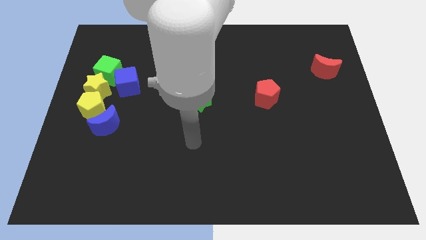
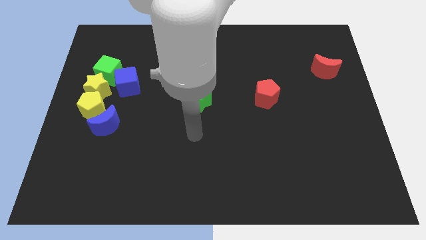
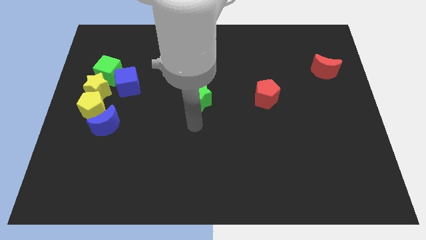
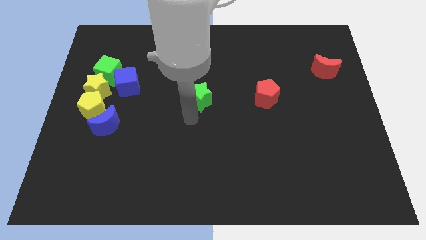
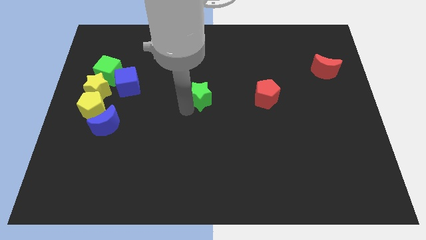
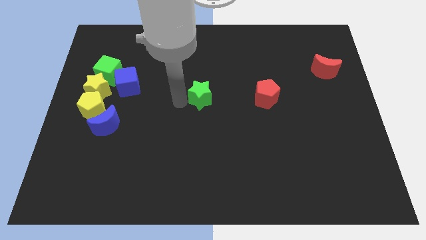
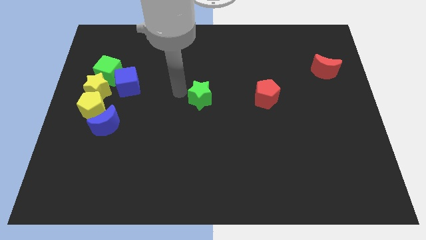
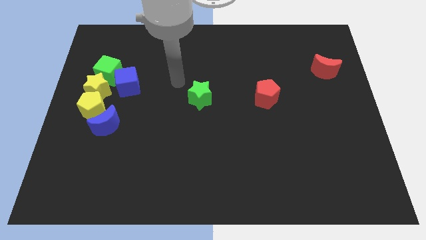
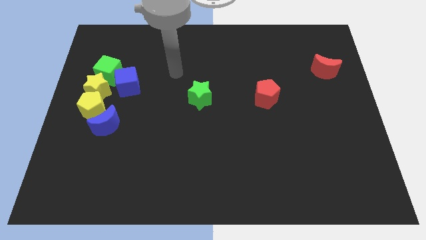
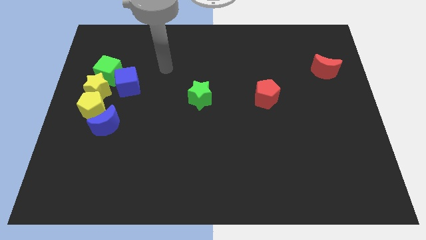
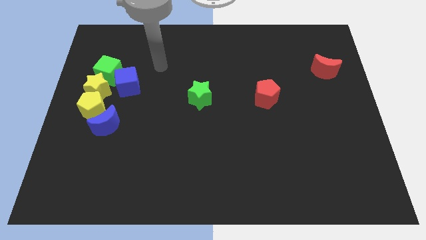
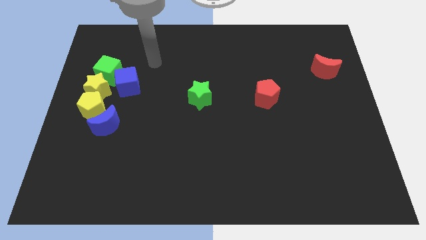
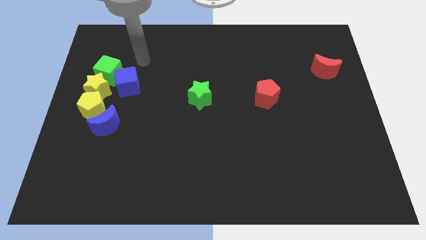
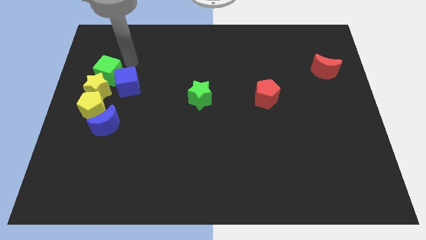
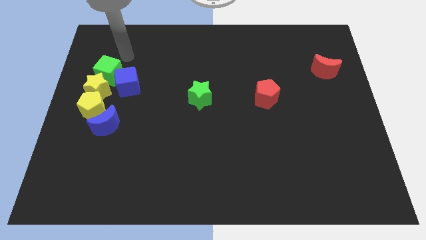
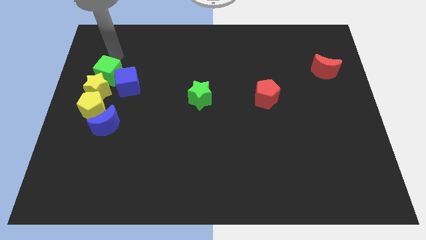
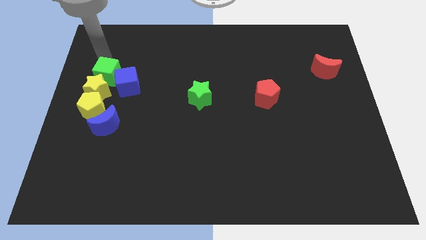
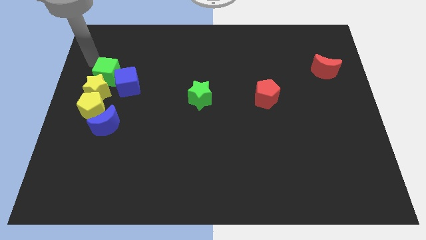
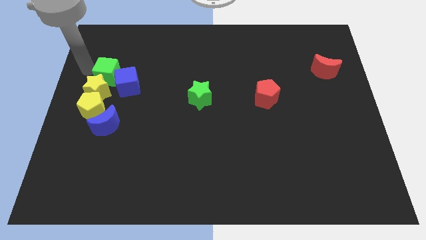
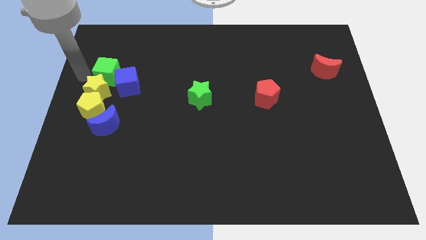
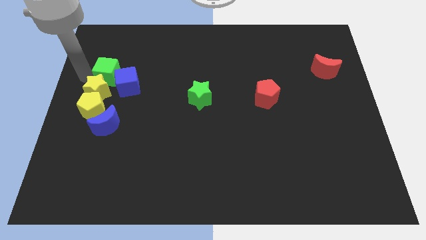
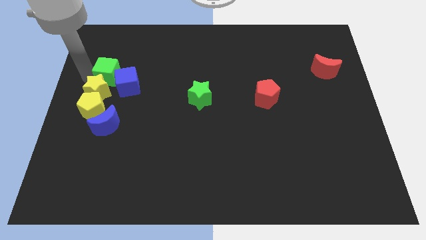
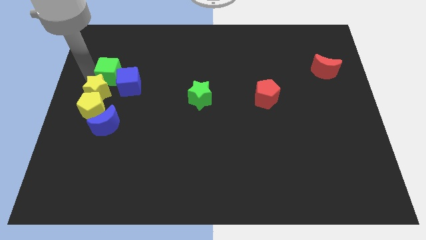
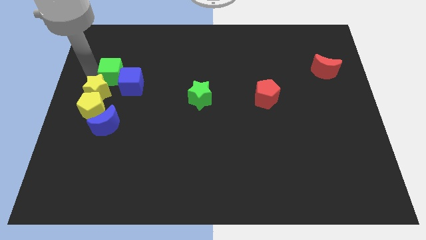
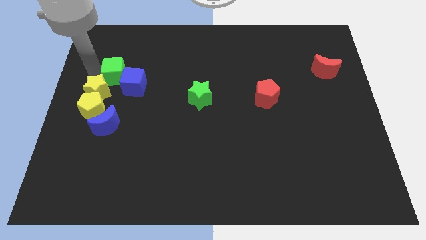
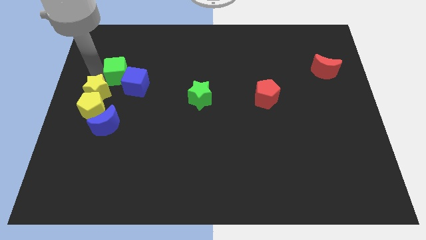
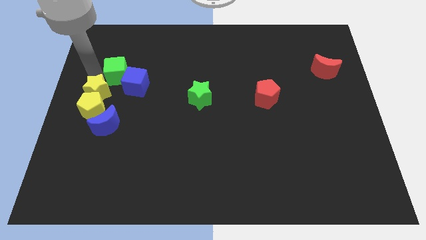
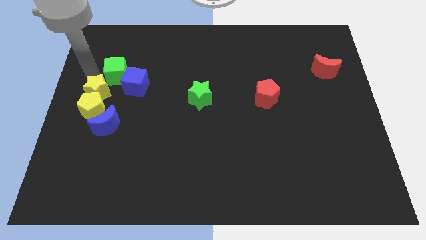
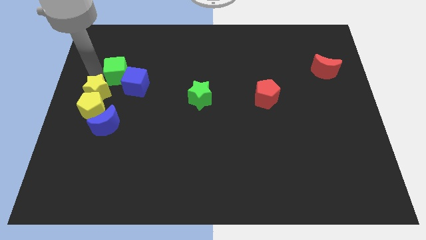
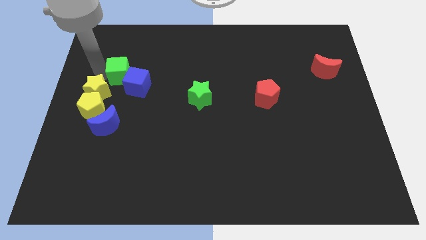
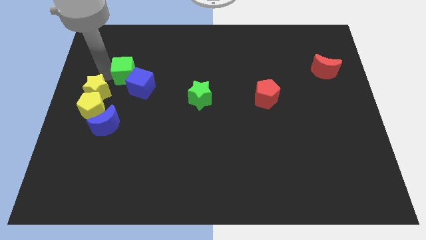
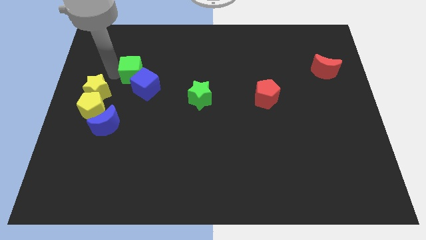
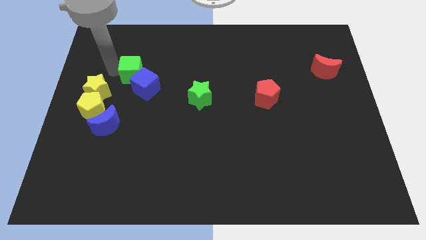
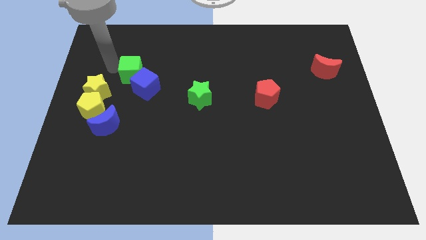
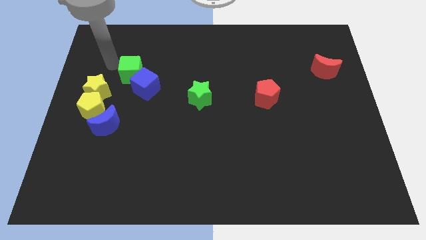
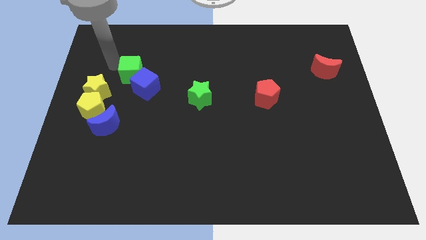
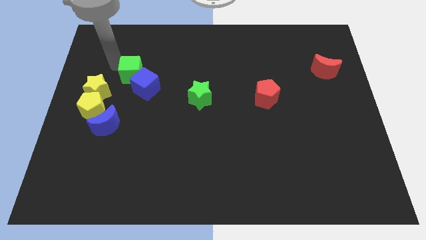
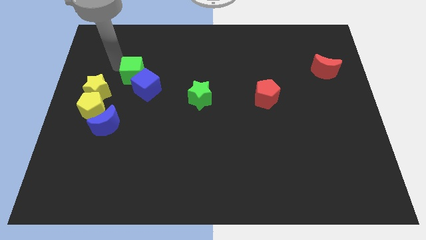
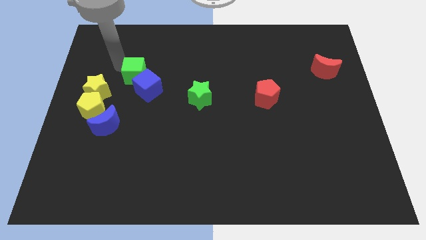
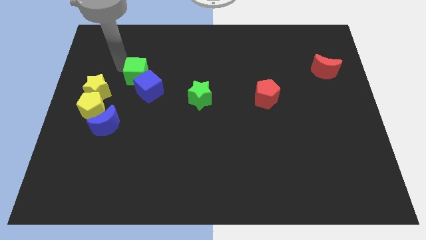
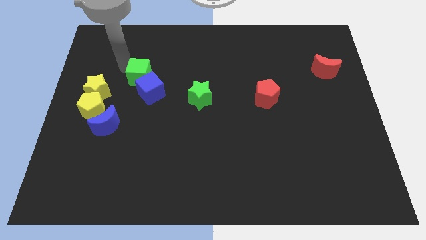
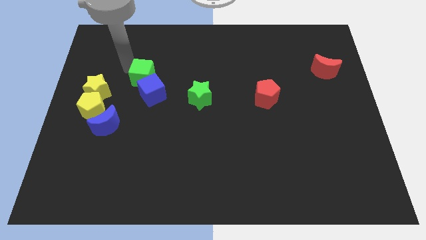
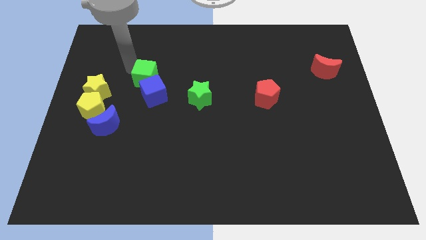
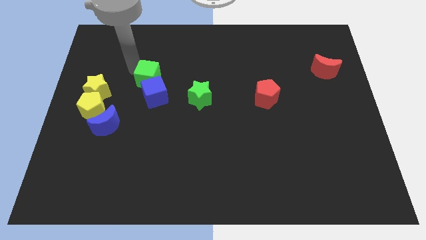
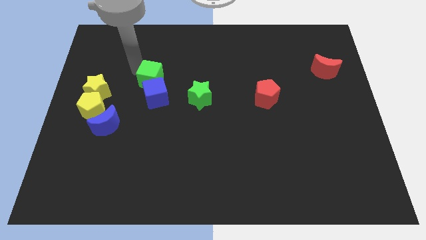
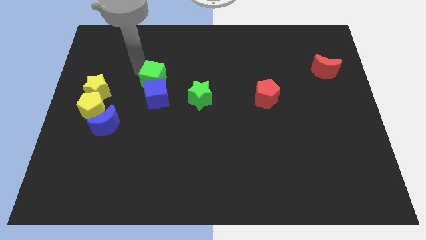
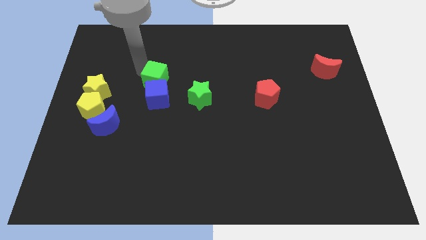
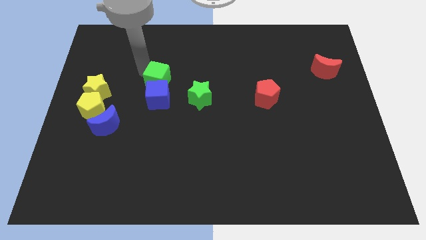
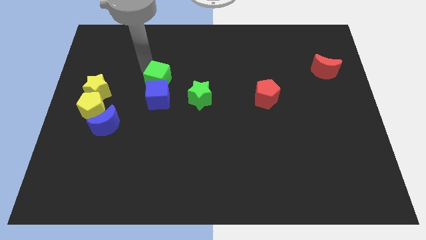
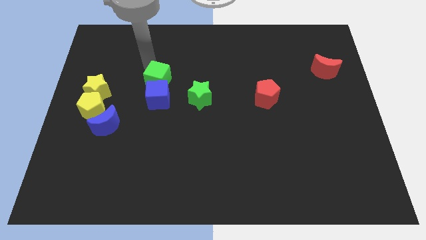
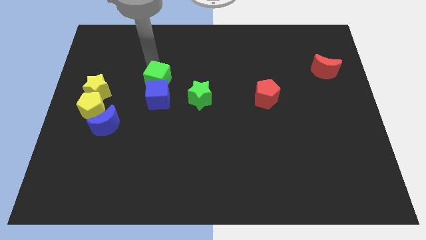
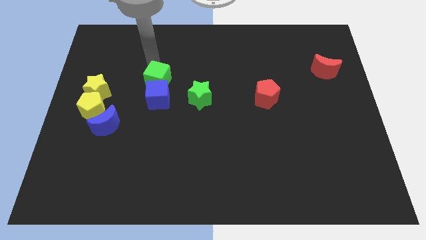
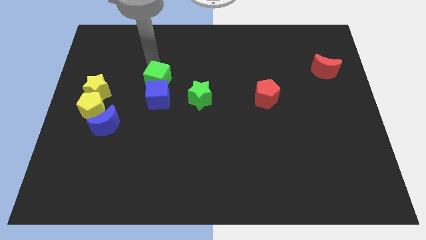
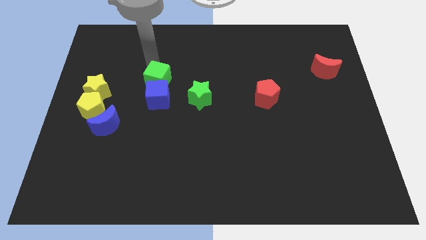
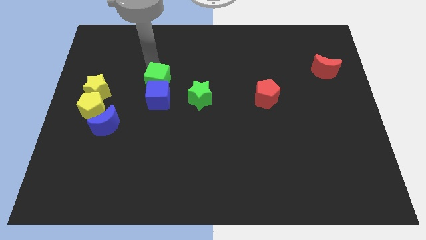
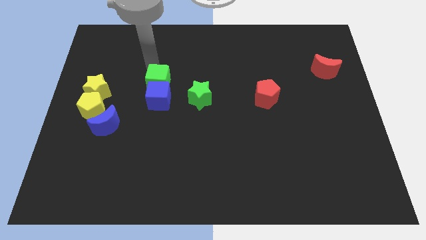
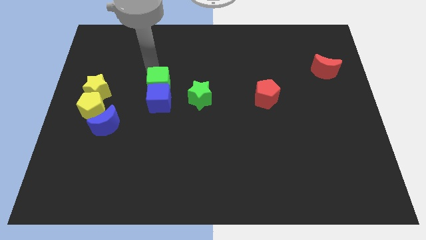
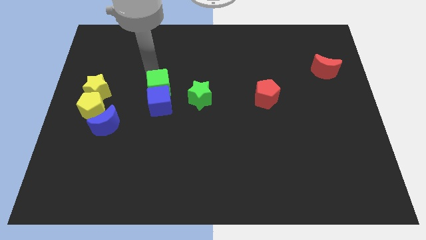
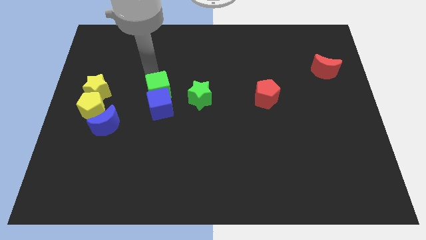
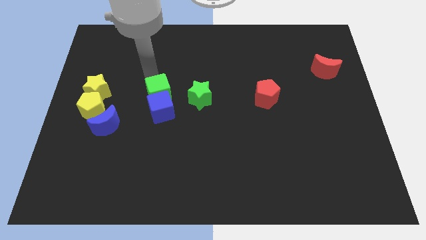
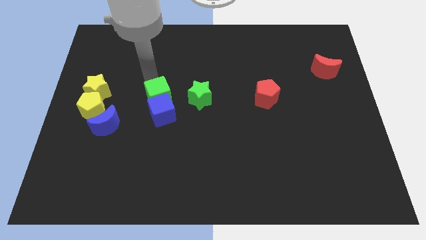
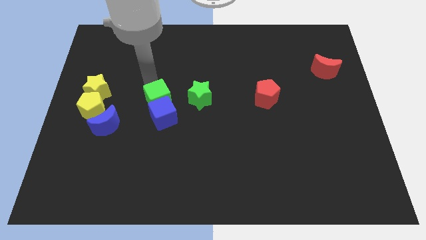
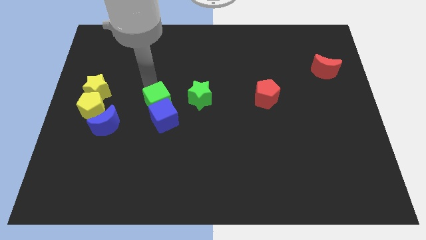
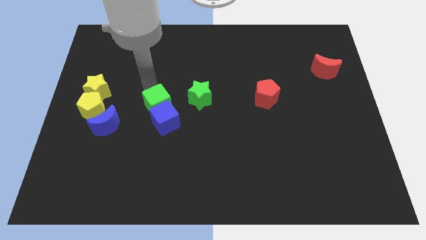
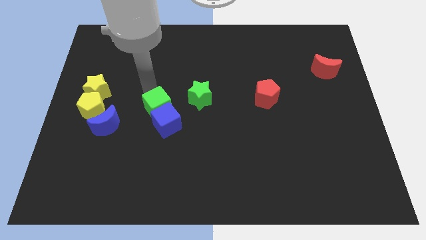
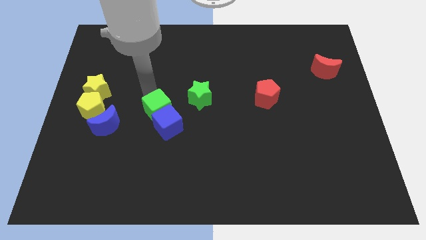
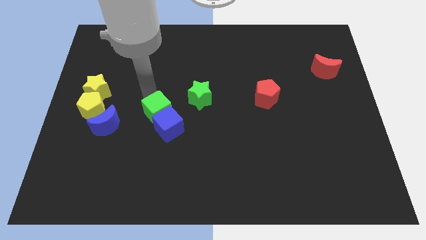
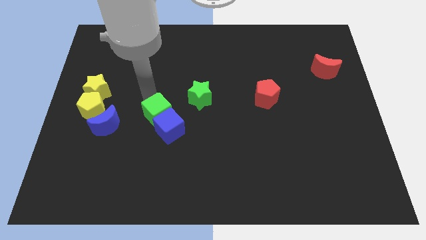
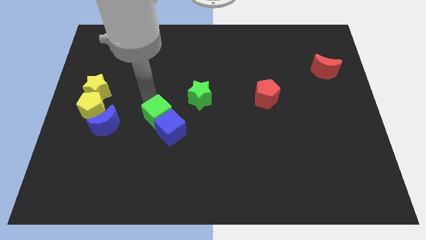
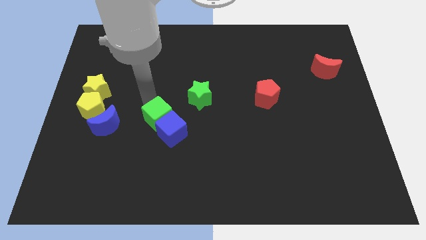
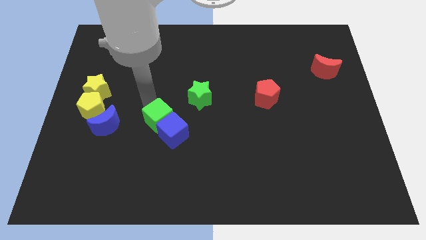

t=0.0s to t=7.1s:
move the green cube down and right diagonally

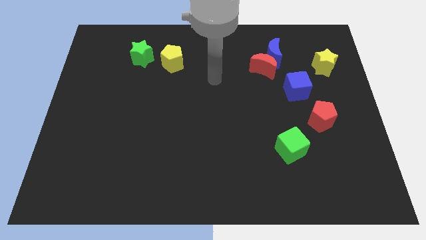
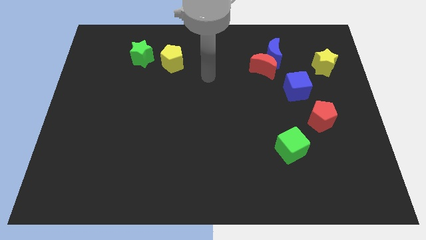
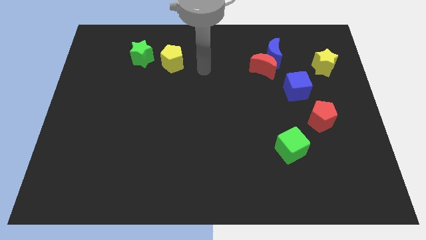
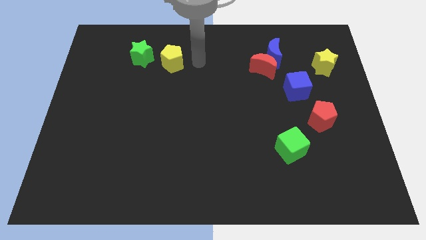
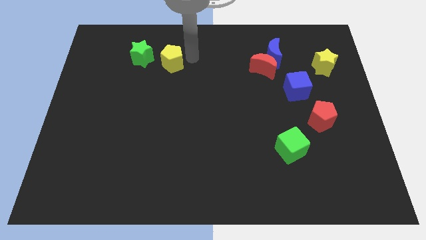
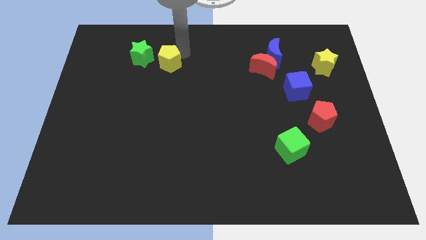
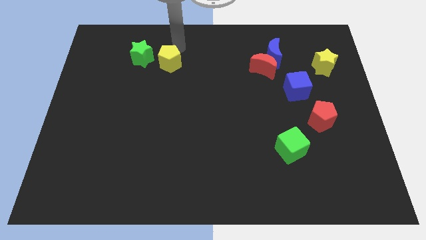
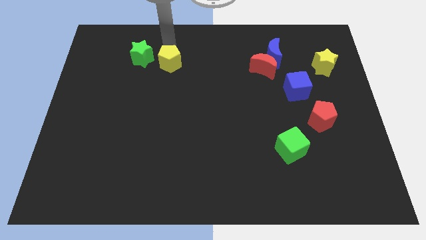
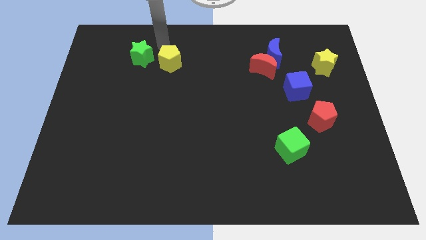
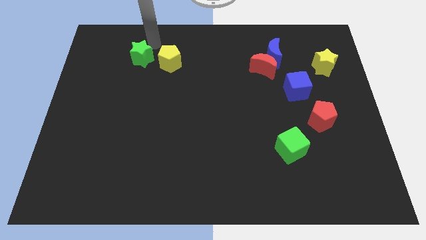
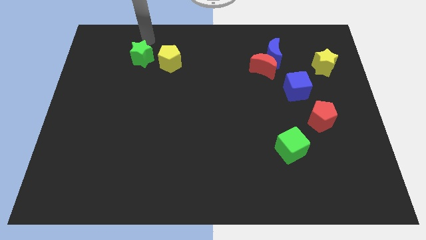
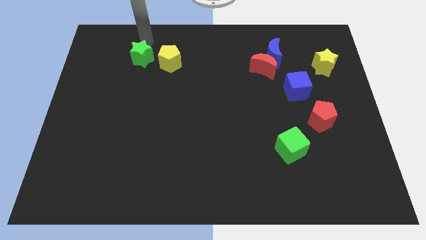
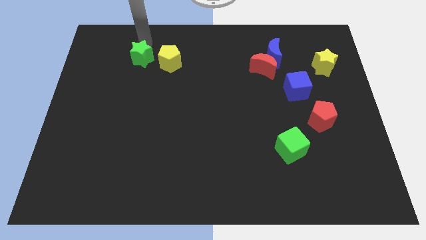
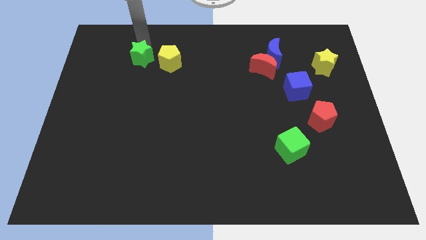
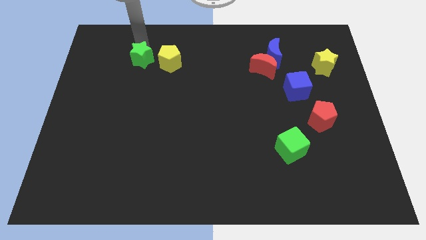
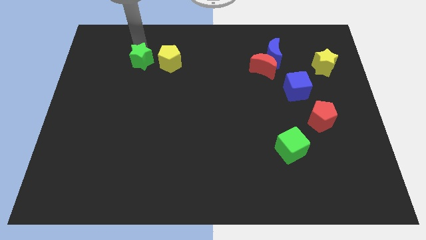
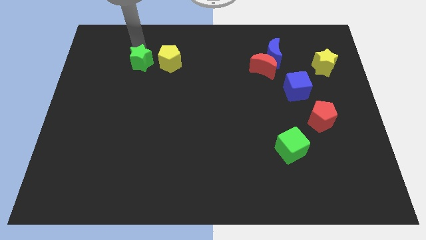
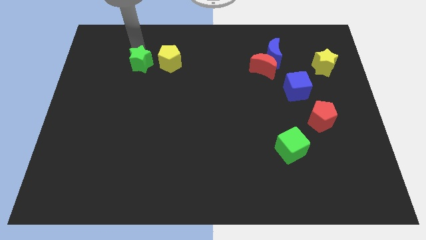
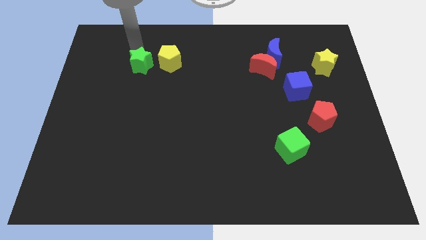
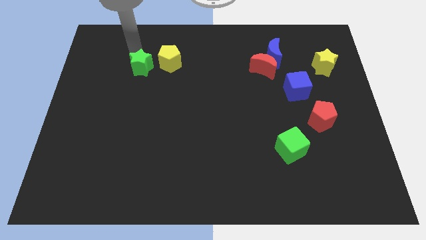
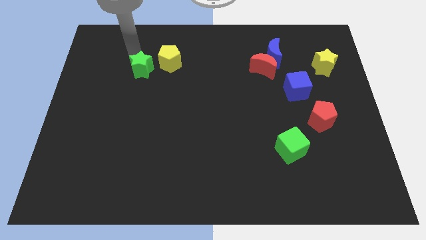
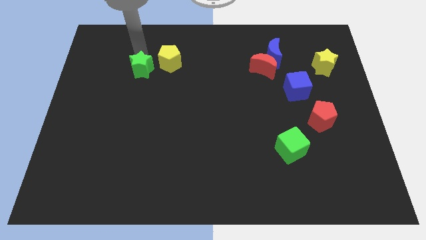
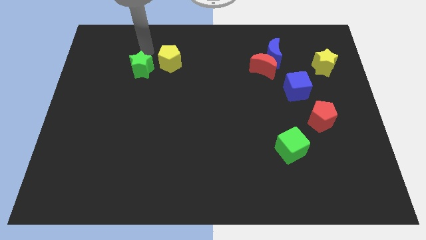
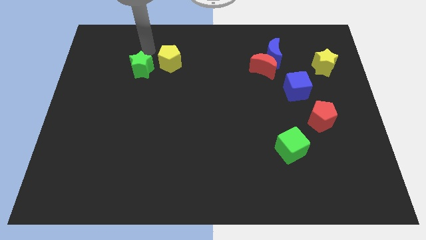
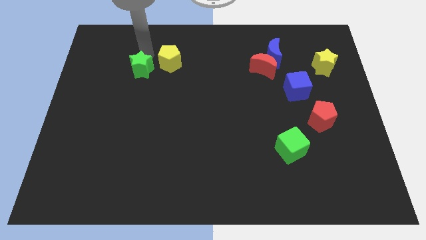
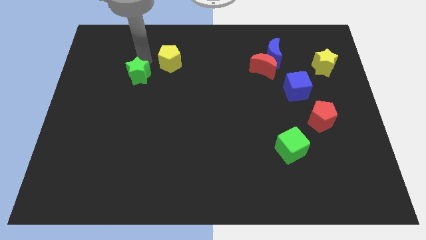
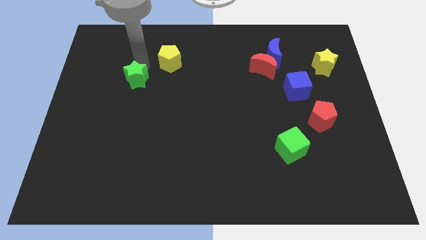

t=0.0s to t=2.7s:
slightly push the green star down
